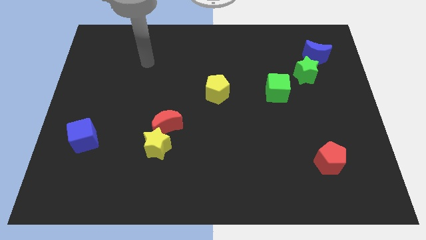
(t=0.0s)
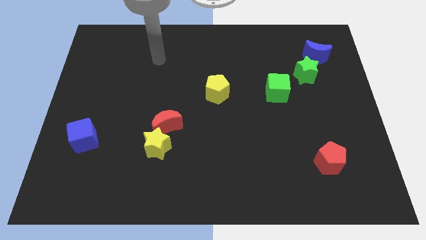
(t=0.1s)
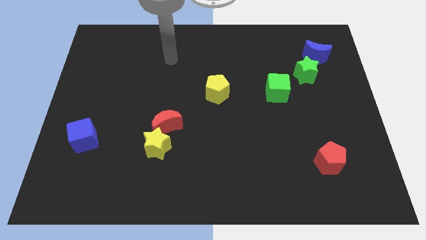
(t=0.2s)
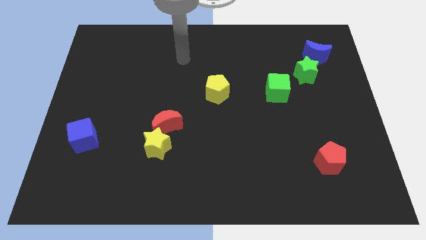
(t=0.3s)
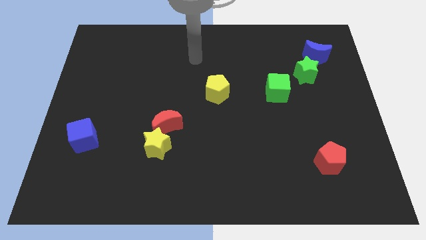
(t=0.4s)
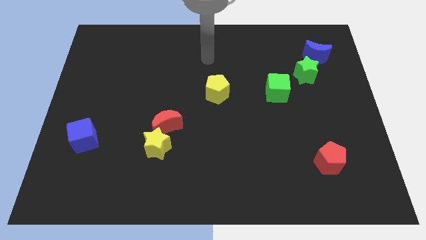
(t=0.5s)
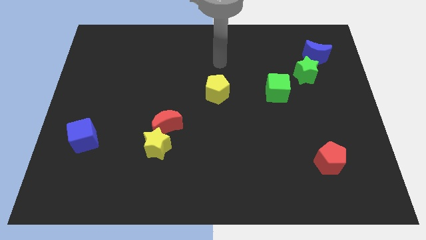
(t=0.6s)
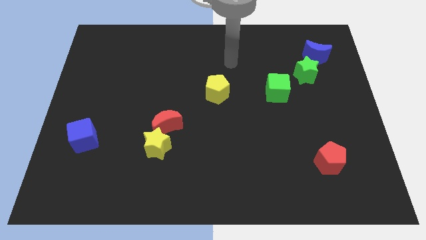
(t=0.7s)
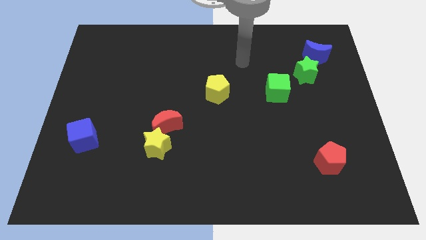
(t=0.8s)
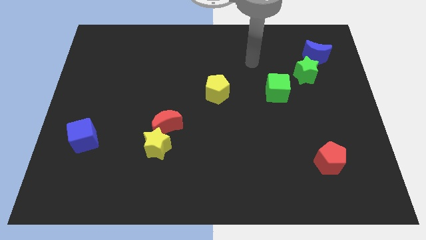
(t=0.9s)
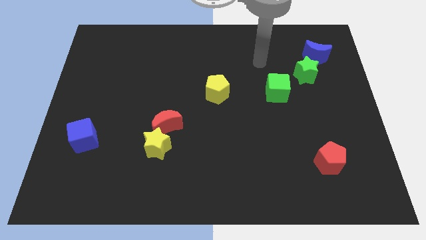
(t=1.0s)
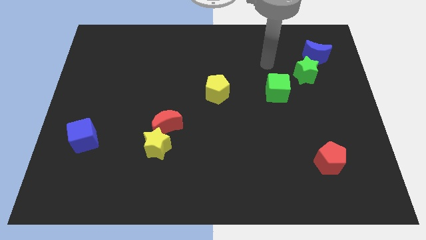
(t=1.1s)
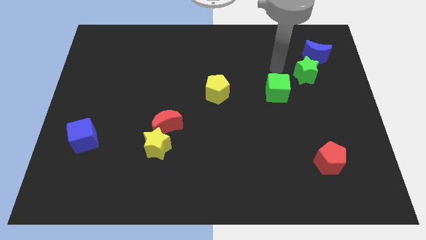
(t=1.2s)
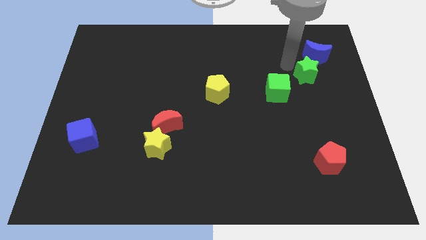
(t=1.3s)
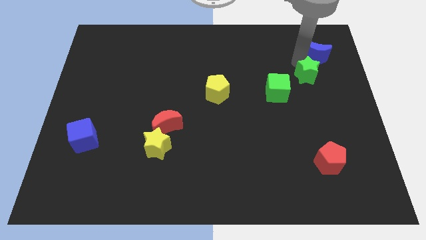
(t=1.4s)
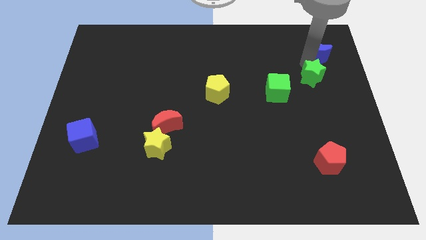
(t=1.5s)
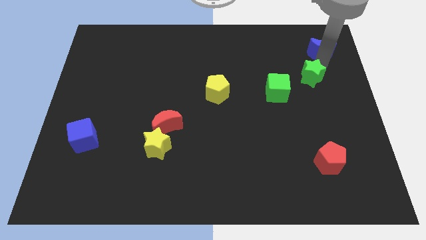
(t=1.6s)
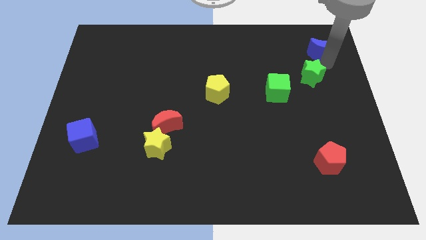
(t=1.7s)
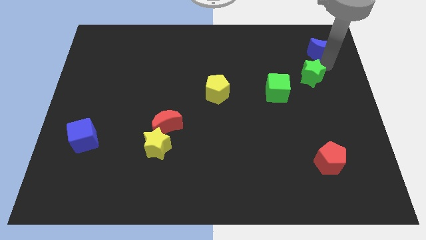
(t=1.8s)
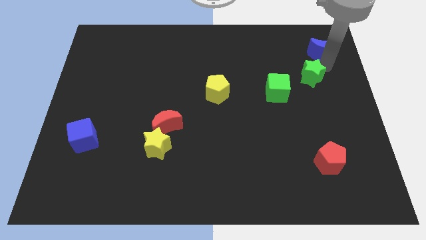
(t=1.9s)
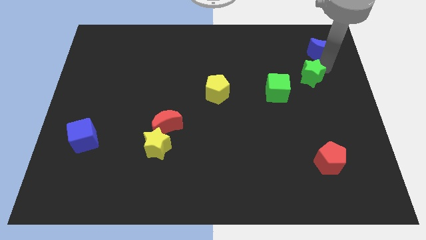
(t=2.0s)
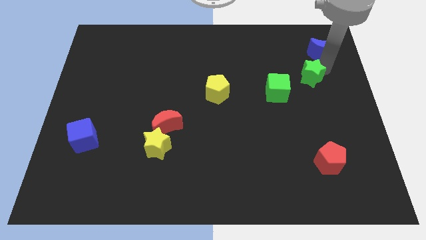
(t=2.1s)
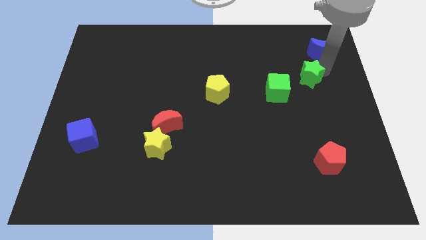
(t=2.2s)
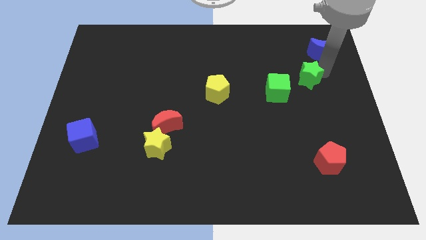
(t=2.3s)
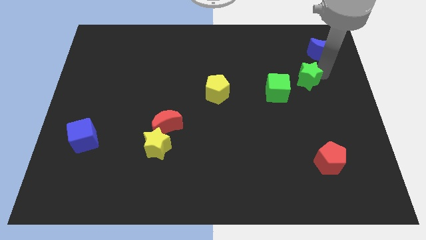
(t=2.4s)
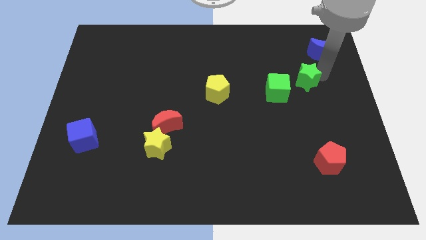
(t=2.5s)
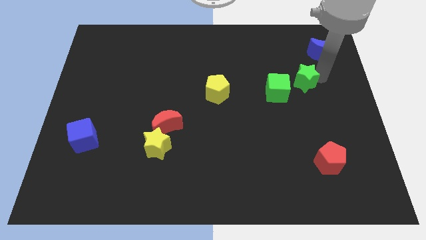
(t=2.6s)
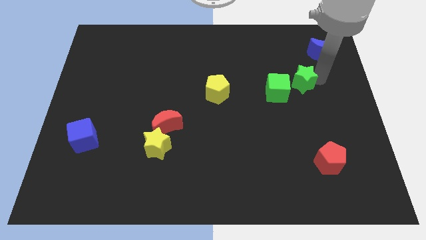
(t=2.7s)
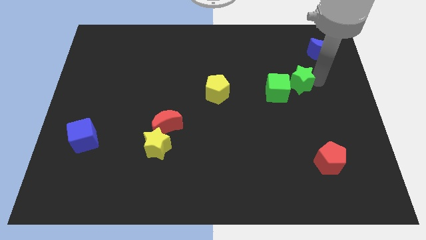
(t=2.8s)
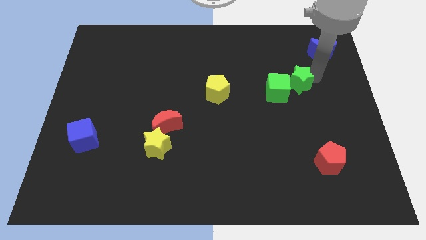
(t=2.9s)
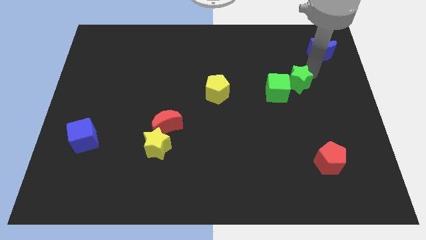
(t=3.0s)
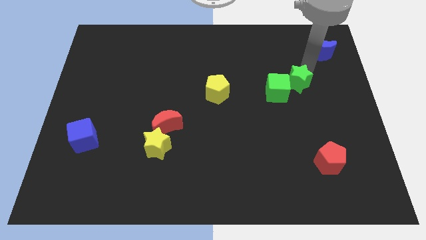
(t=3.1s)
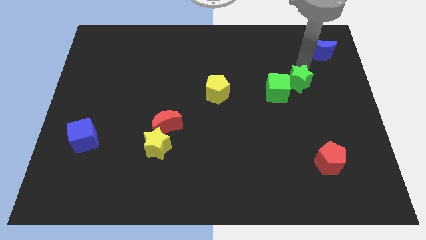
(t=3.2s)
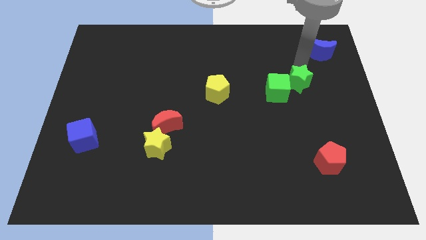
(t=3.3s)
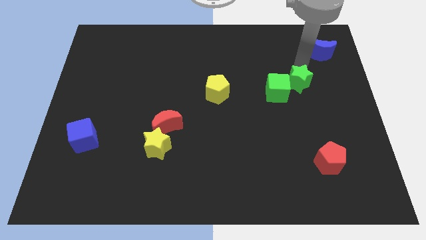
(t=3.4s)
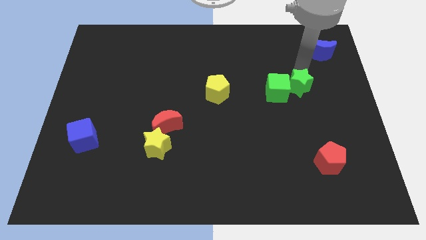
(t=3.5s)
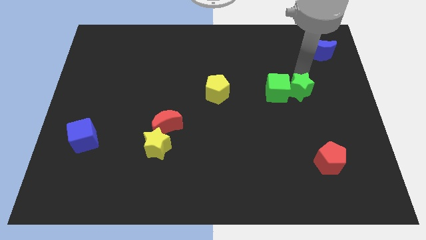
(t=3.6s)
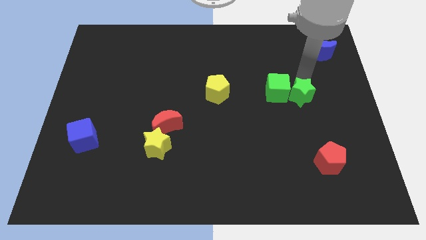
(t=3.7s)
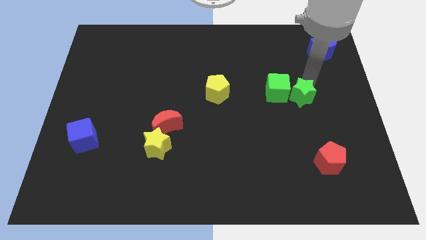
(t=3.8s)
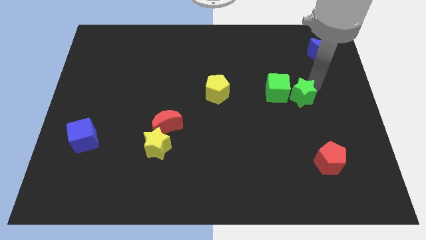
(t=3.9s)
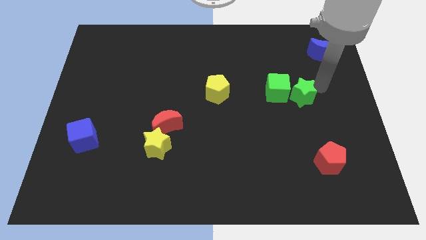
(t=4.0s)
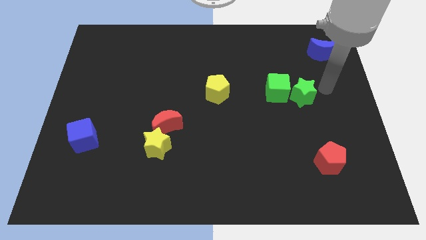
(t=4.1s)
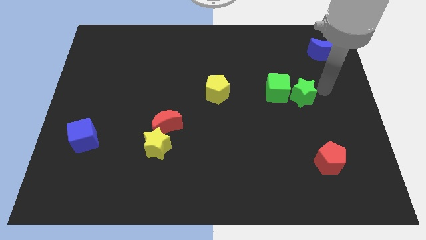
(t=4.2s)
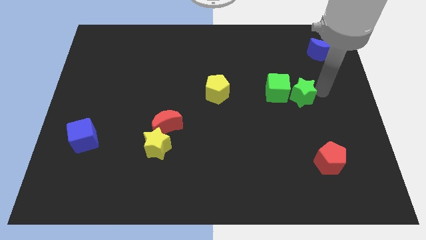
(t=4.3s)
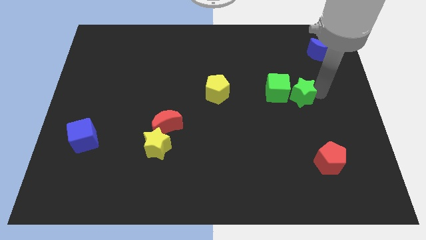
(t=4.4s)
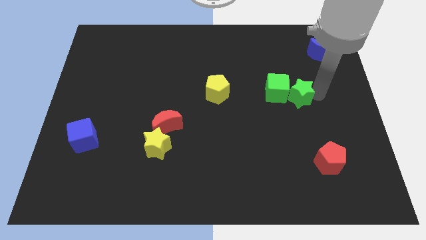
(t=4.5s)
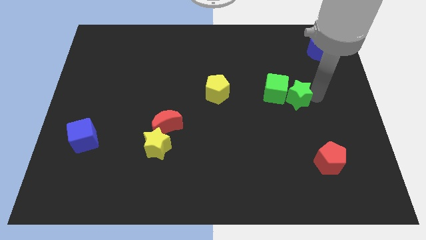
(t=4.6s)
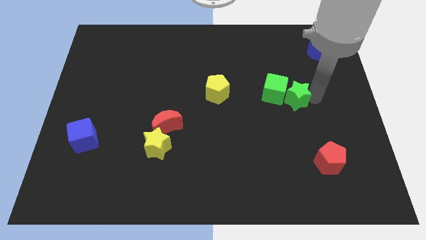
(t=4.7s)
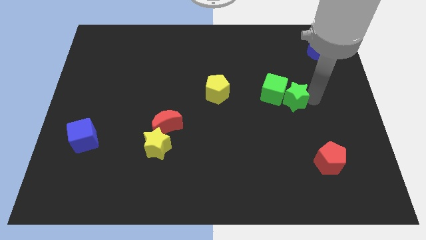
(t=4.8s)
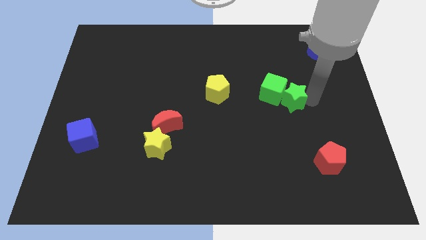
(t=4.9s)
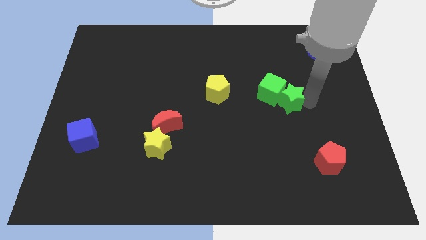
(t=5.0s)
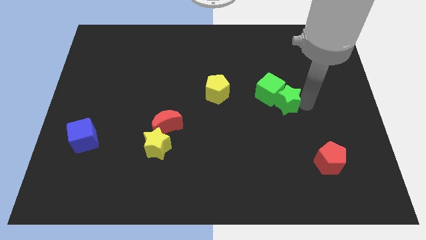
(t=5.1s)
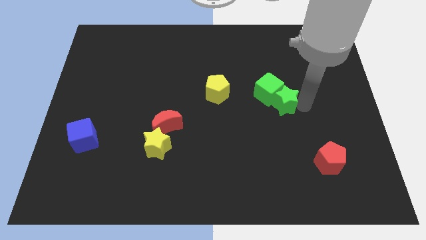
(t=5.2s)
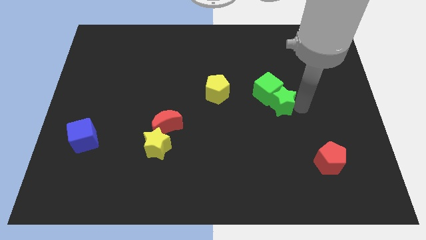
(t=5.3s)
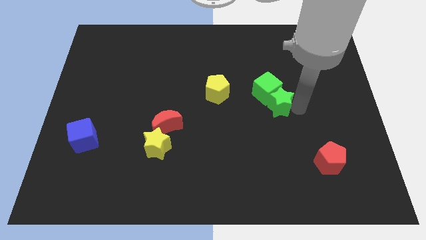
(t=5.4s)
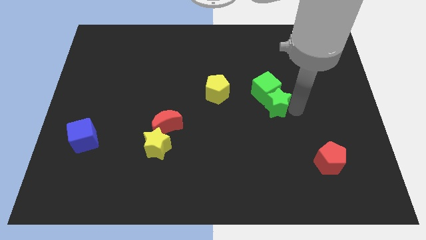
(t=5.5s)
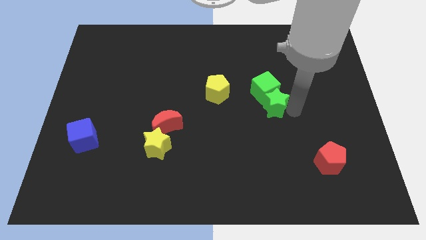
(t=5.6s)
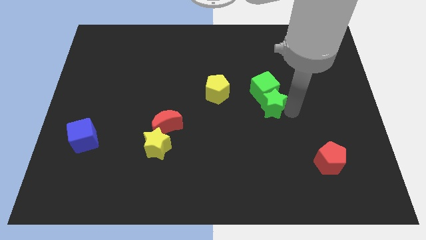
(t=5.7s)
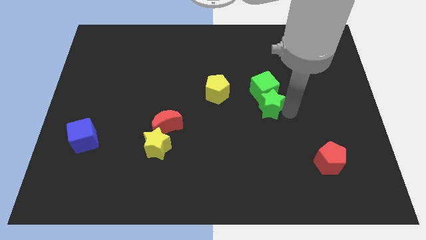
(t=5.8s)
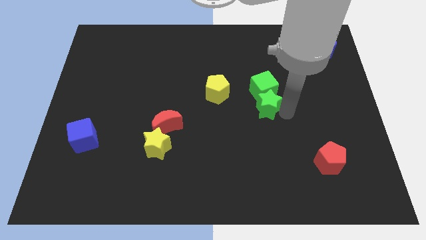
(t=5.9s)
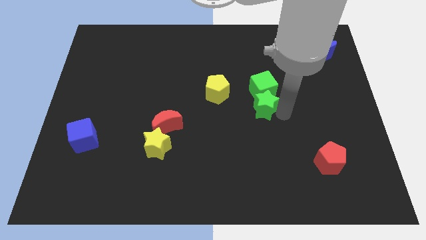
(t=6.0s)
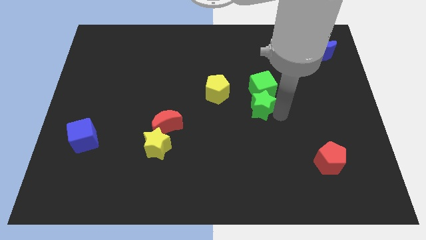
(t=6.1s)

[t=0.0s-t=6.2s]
push the green star to the bottom right of the yellow pentagon

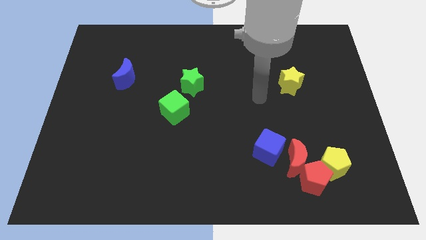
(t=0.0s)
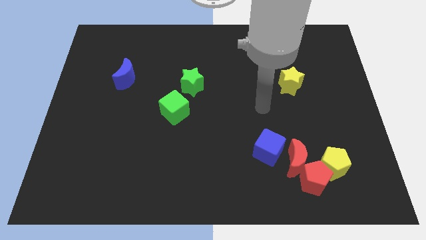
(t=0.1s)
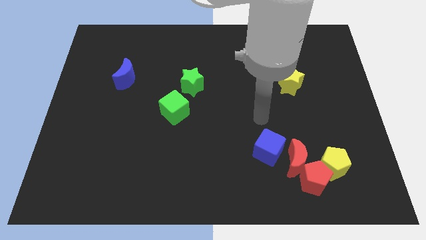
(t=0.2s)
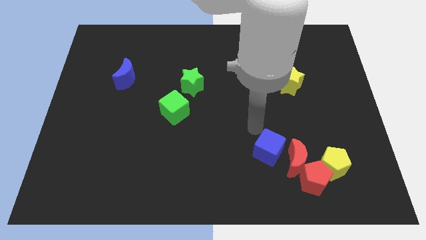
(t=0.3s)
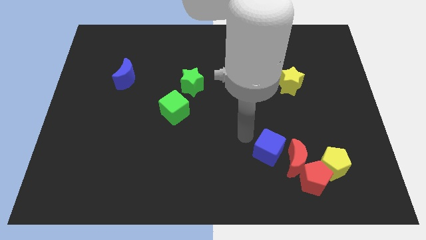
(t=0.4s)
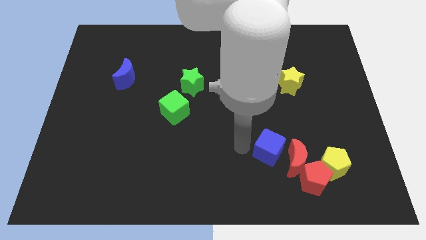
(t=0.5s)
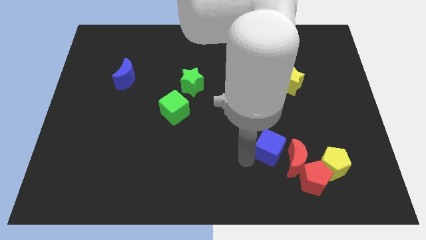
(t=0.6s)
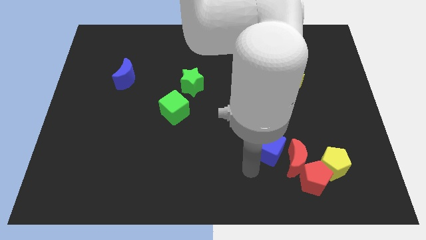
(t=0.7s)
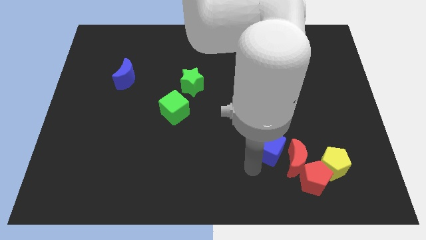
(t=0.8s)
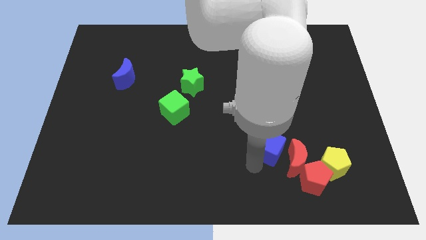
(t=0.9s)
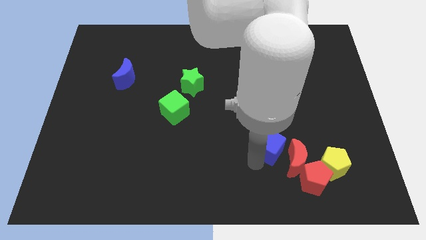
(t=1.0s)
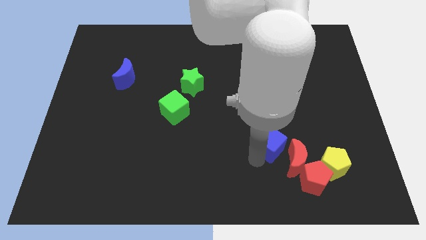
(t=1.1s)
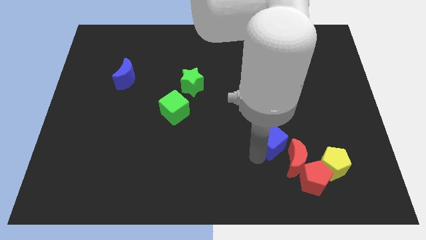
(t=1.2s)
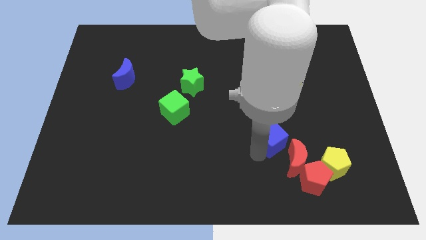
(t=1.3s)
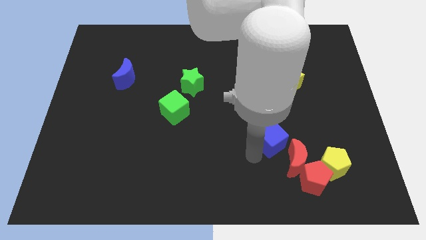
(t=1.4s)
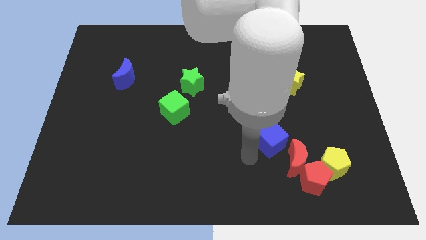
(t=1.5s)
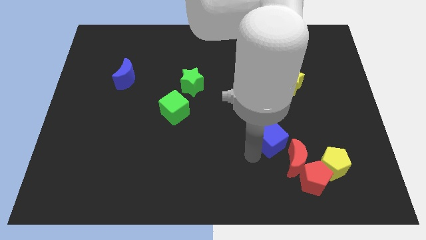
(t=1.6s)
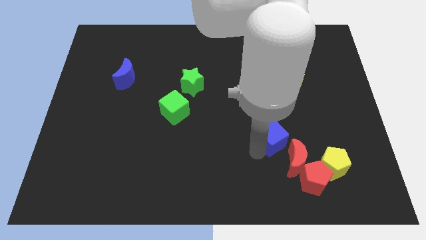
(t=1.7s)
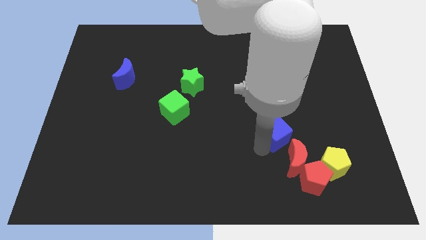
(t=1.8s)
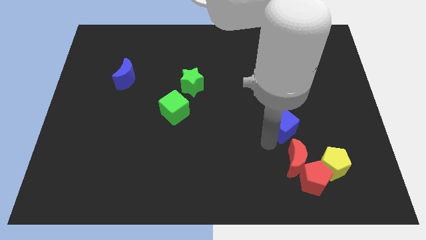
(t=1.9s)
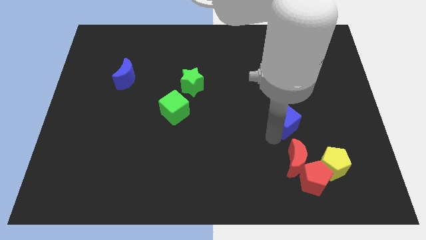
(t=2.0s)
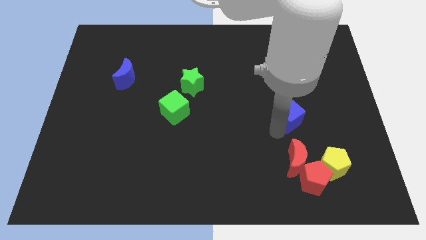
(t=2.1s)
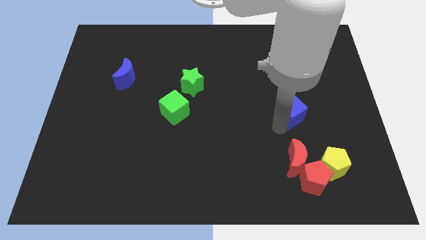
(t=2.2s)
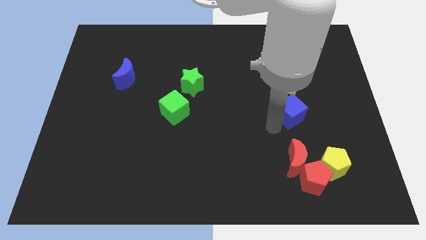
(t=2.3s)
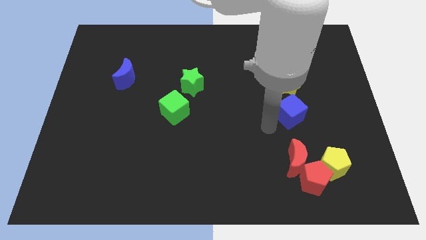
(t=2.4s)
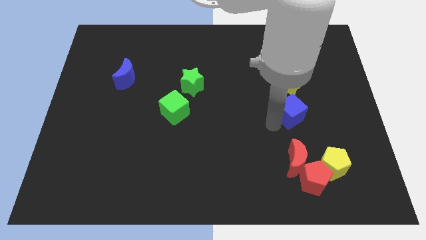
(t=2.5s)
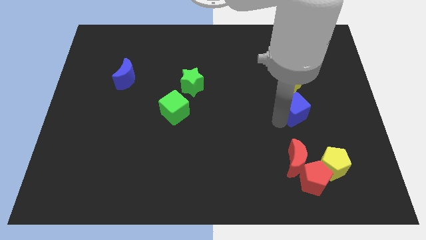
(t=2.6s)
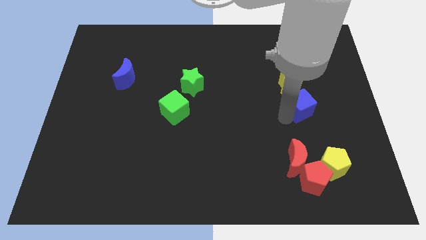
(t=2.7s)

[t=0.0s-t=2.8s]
slide the blue cube to the bottom right of the yellow star
